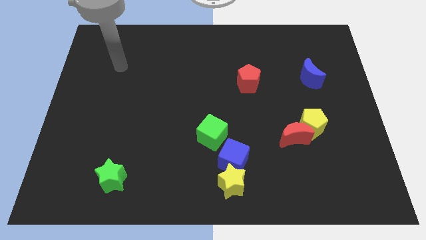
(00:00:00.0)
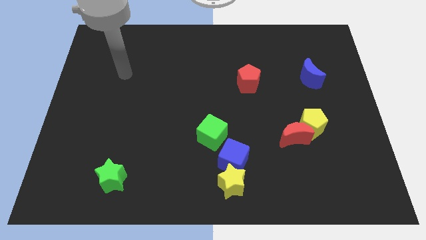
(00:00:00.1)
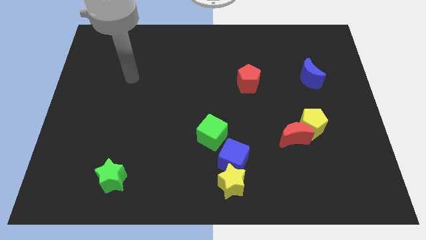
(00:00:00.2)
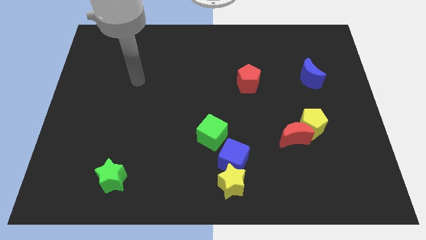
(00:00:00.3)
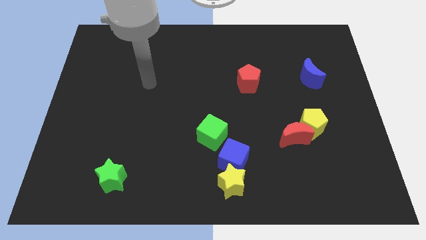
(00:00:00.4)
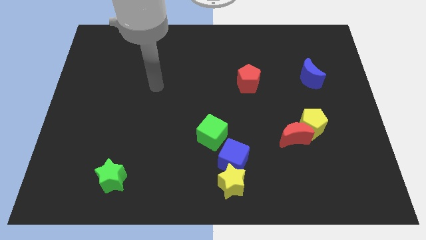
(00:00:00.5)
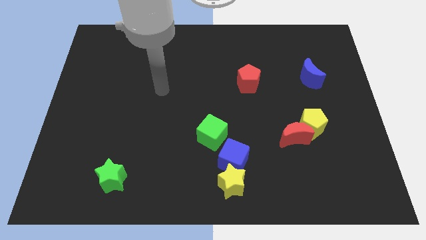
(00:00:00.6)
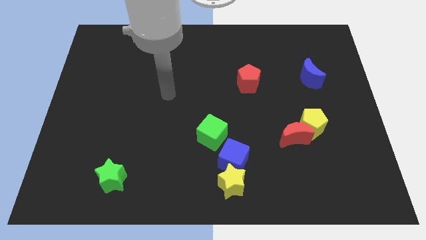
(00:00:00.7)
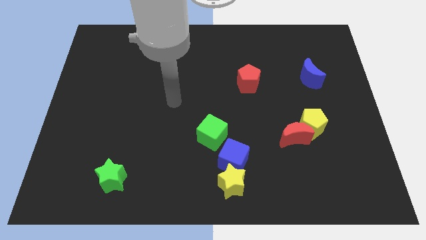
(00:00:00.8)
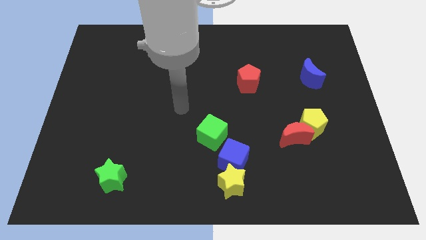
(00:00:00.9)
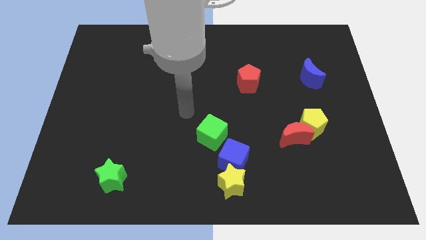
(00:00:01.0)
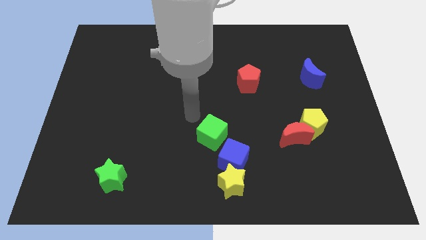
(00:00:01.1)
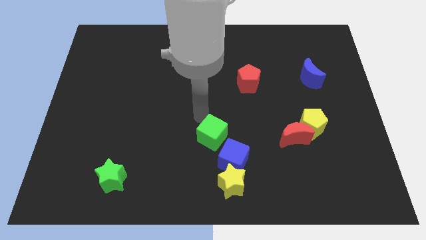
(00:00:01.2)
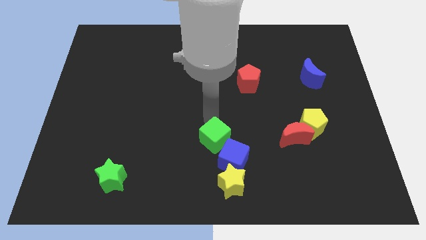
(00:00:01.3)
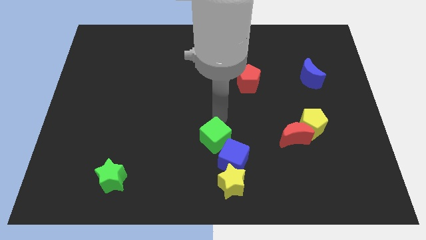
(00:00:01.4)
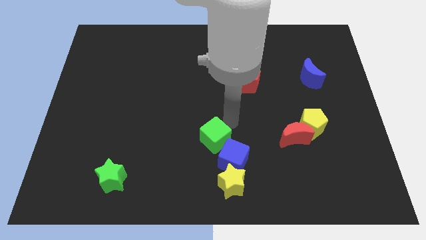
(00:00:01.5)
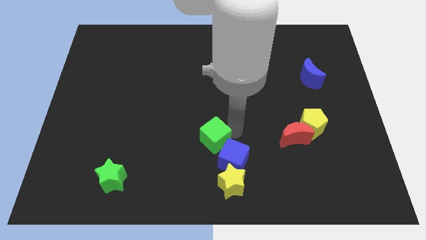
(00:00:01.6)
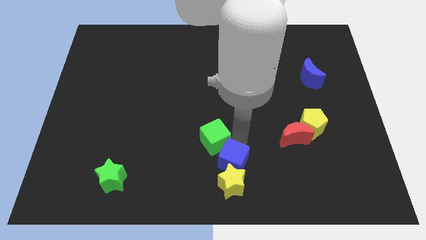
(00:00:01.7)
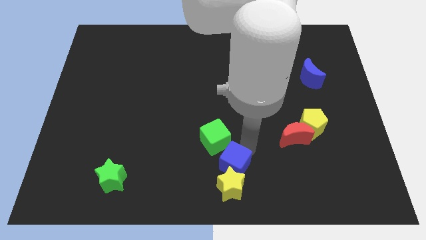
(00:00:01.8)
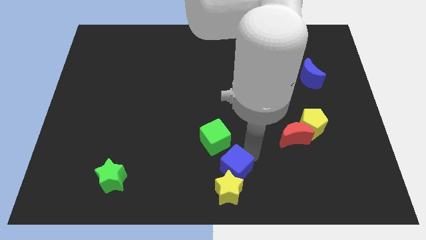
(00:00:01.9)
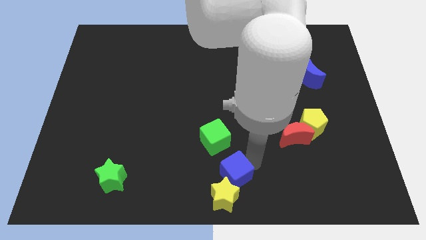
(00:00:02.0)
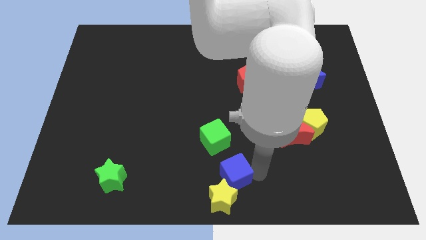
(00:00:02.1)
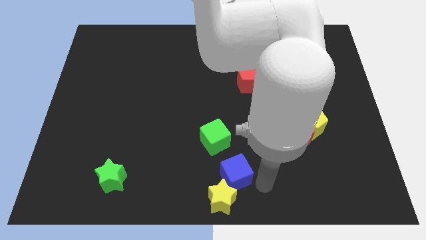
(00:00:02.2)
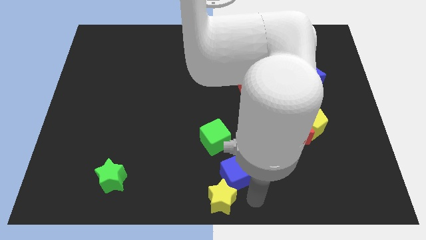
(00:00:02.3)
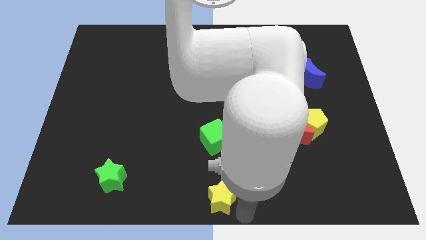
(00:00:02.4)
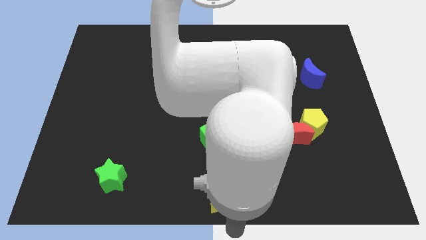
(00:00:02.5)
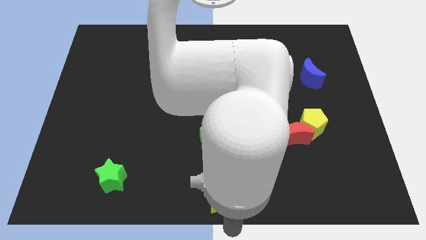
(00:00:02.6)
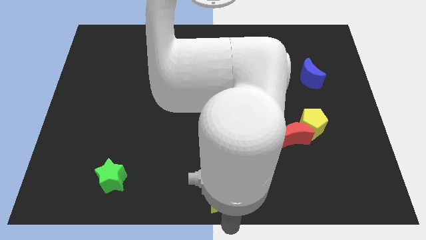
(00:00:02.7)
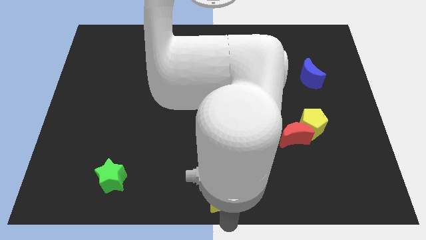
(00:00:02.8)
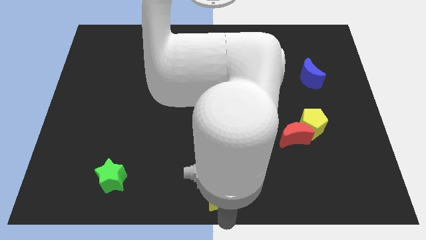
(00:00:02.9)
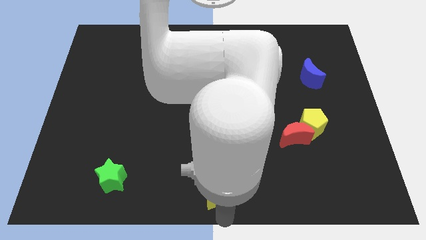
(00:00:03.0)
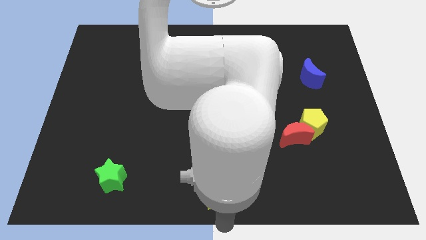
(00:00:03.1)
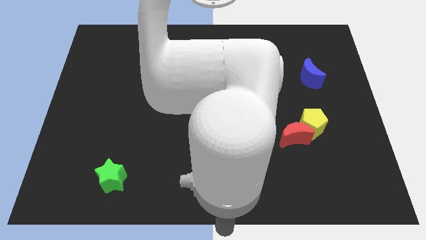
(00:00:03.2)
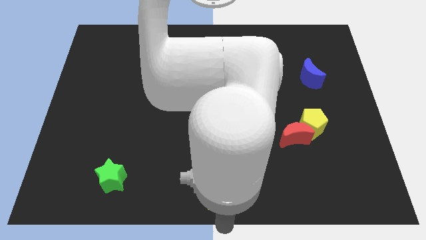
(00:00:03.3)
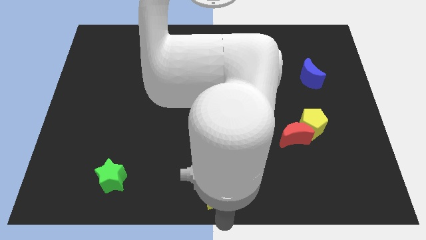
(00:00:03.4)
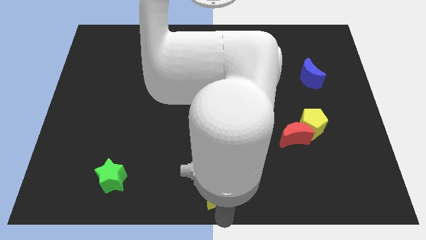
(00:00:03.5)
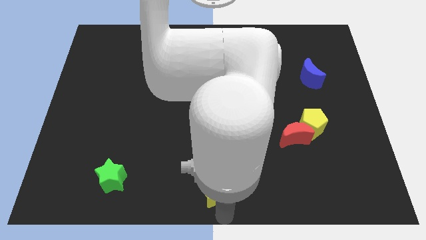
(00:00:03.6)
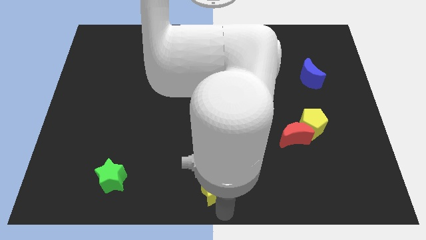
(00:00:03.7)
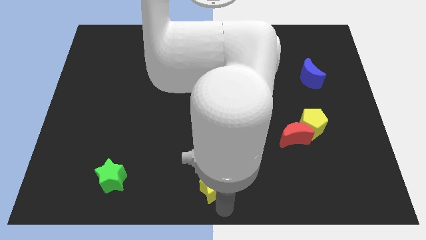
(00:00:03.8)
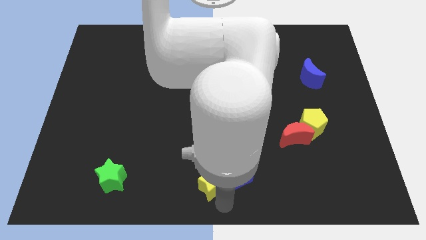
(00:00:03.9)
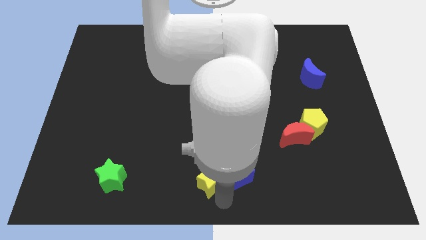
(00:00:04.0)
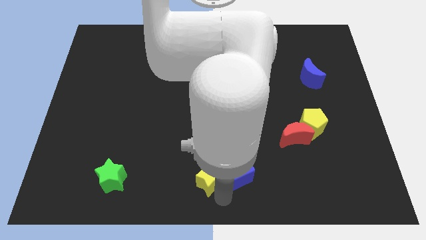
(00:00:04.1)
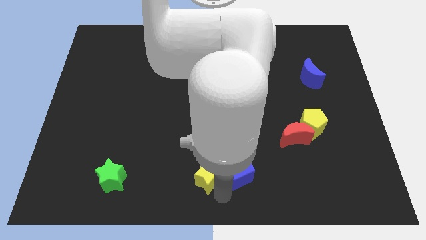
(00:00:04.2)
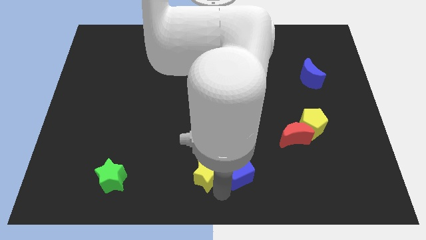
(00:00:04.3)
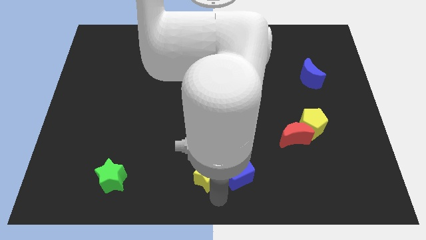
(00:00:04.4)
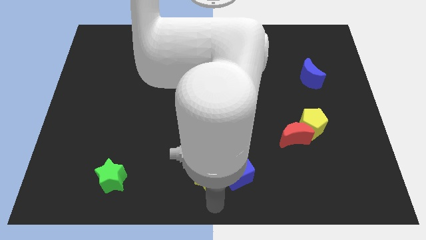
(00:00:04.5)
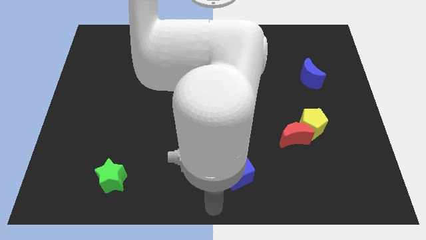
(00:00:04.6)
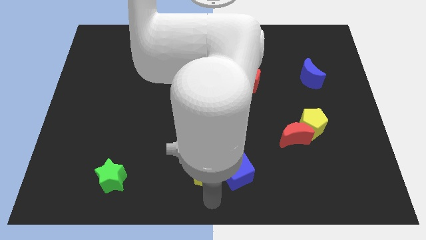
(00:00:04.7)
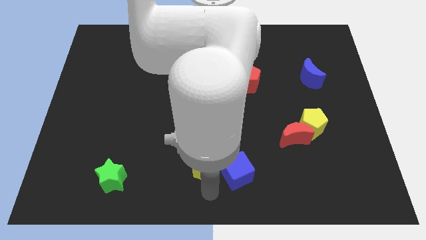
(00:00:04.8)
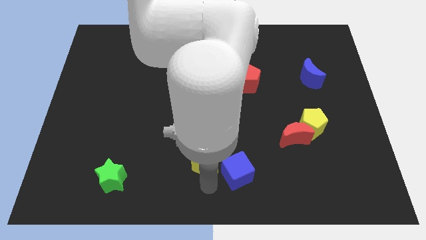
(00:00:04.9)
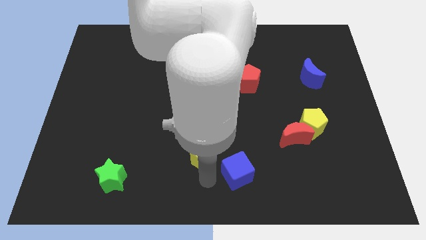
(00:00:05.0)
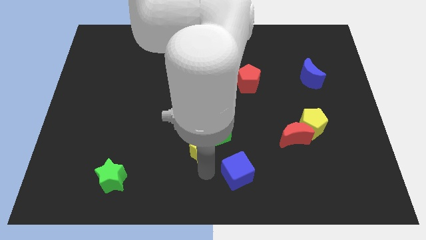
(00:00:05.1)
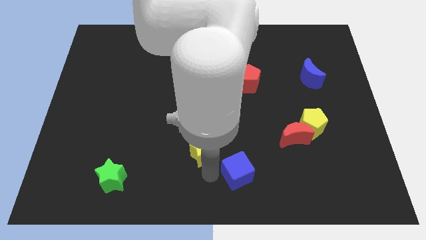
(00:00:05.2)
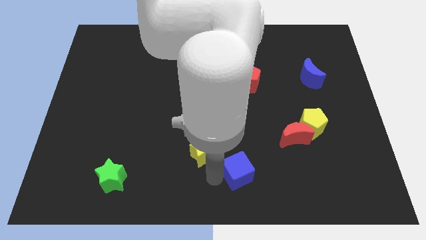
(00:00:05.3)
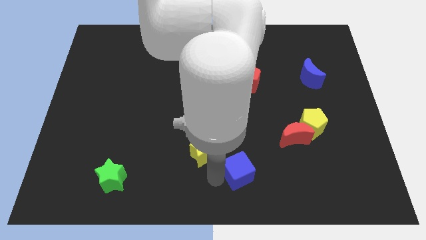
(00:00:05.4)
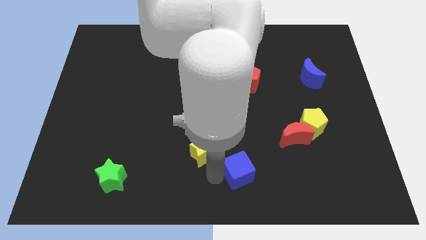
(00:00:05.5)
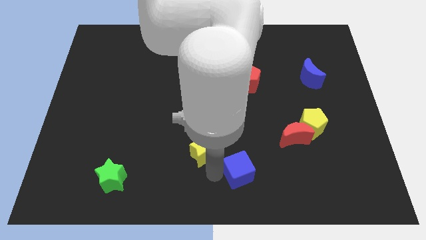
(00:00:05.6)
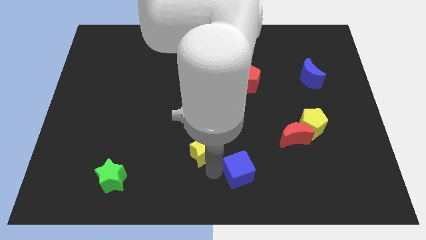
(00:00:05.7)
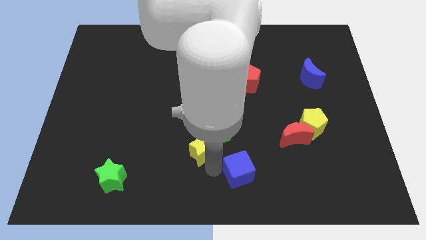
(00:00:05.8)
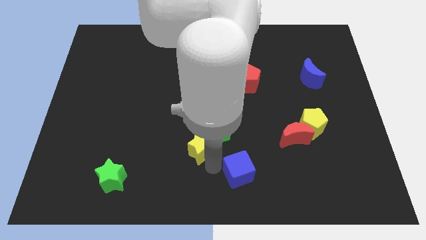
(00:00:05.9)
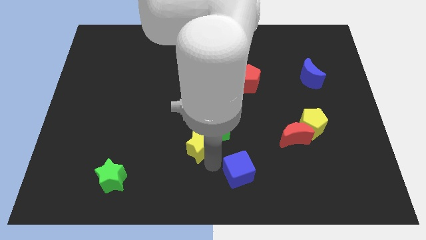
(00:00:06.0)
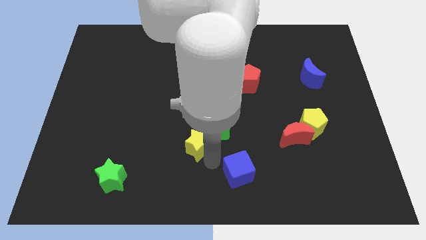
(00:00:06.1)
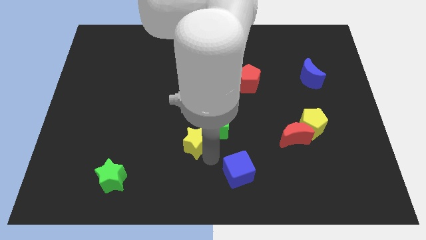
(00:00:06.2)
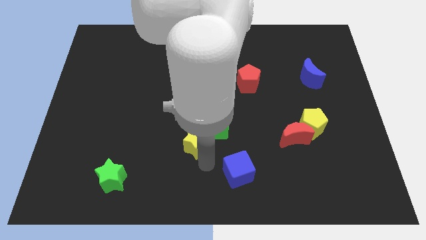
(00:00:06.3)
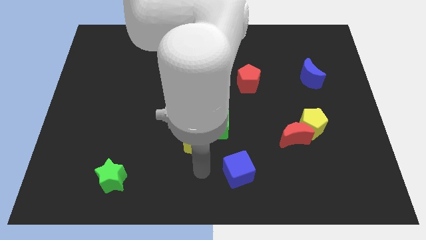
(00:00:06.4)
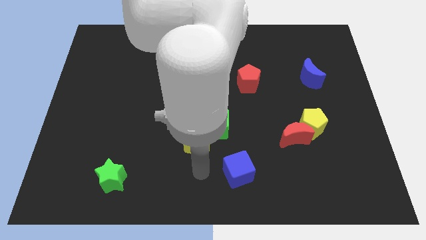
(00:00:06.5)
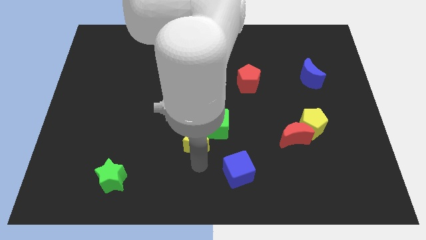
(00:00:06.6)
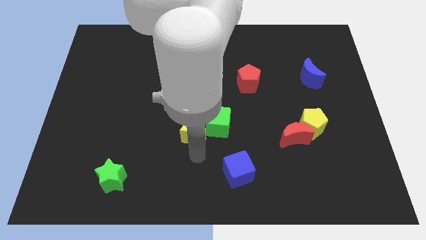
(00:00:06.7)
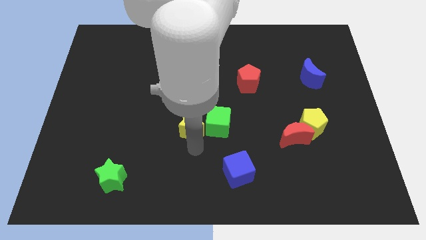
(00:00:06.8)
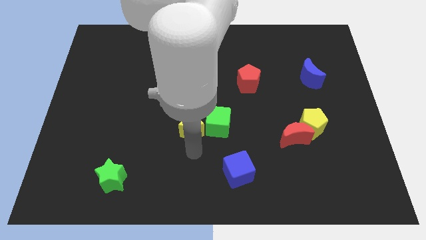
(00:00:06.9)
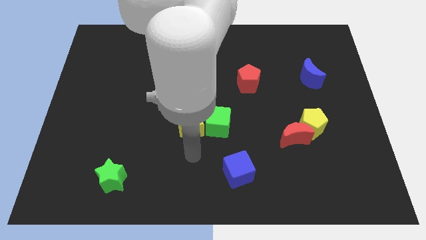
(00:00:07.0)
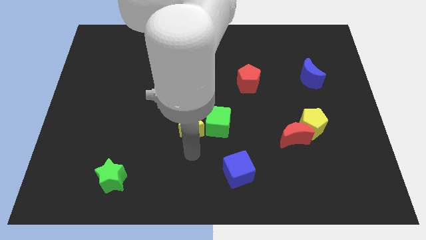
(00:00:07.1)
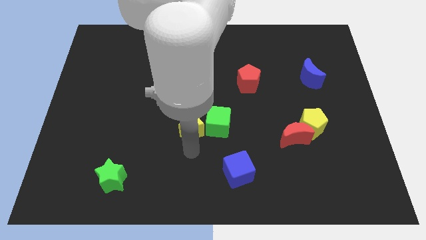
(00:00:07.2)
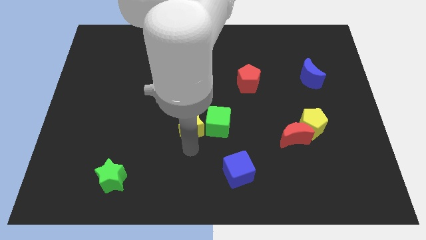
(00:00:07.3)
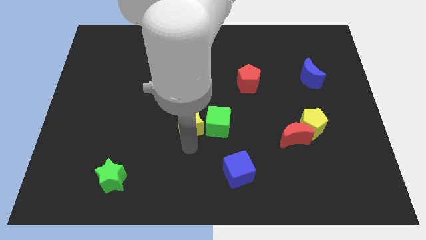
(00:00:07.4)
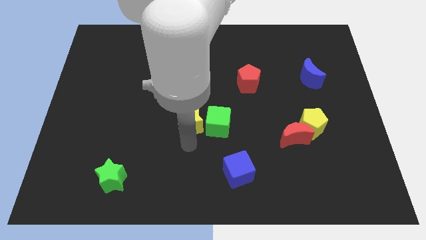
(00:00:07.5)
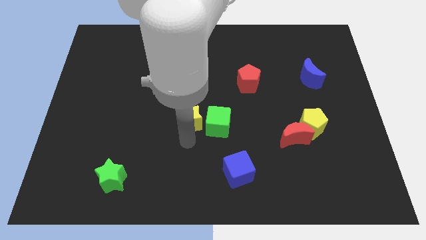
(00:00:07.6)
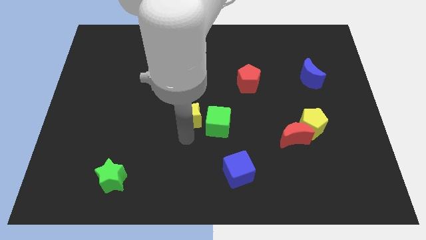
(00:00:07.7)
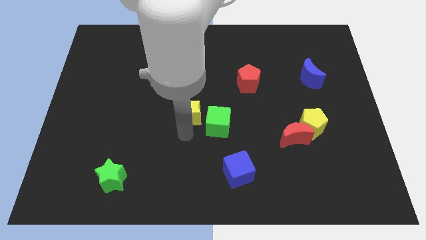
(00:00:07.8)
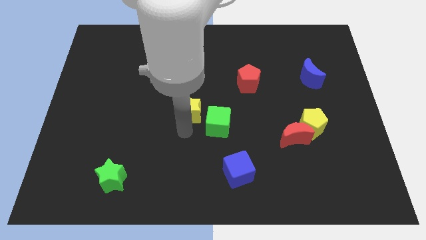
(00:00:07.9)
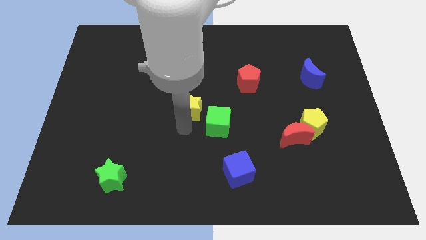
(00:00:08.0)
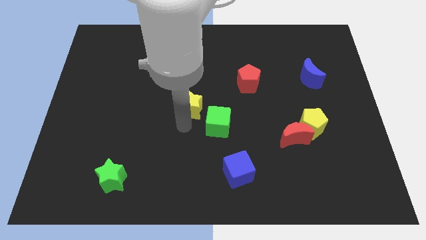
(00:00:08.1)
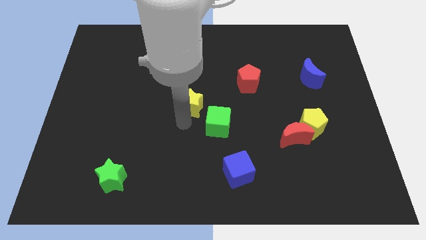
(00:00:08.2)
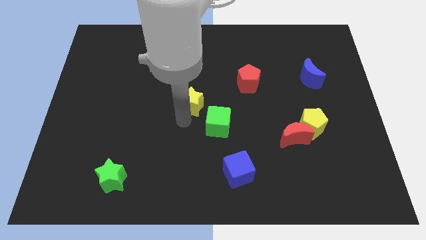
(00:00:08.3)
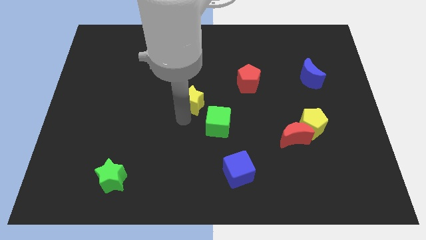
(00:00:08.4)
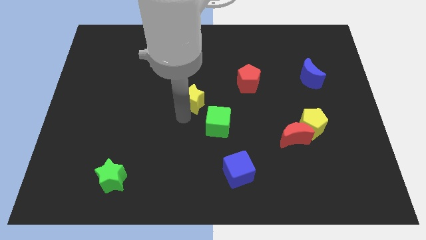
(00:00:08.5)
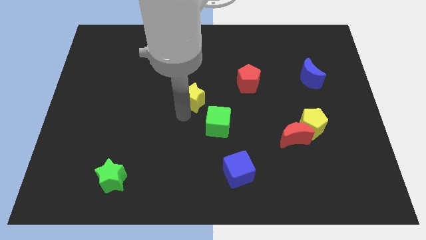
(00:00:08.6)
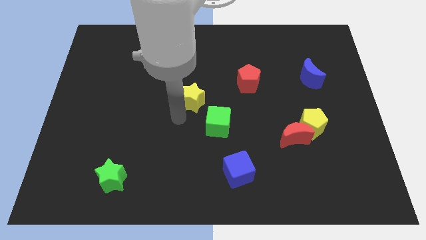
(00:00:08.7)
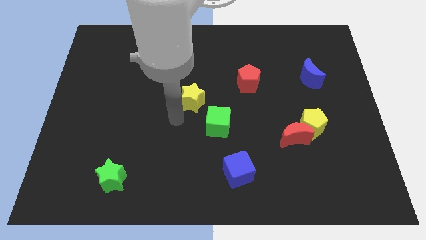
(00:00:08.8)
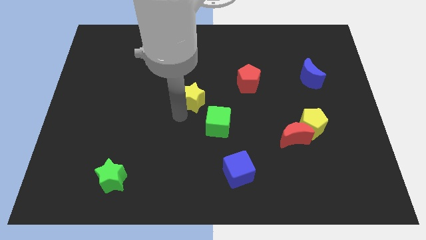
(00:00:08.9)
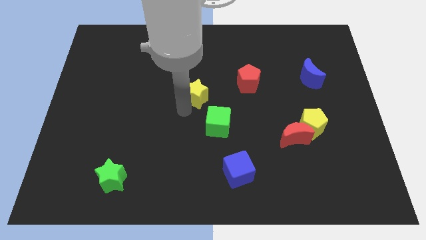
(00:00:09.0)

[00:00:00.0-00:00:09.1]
move the yellow star to the left of the red pentagon
